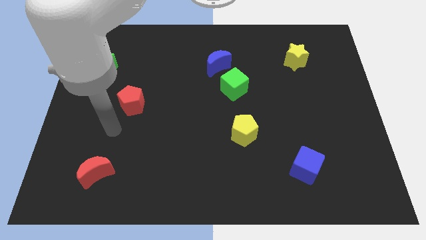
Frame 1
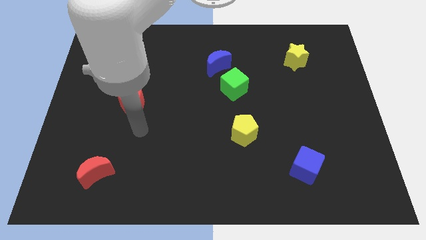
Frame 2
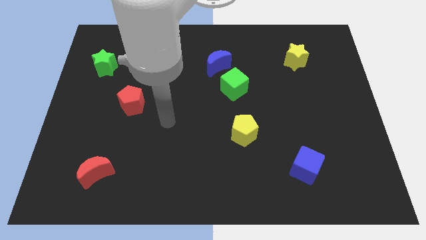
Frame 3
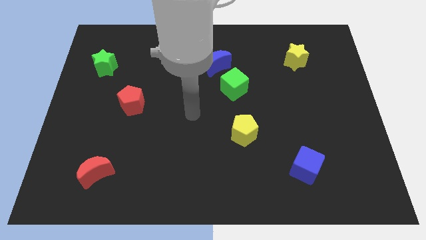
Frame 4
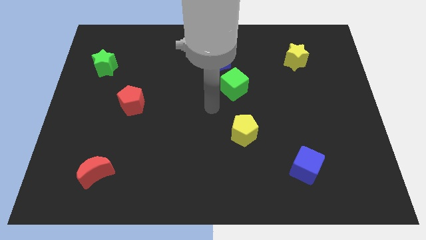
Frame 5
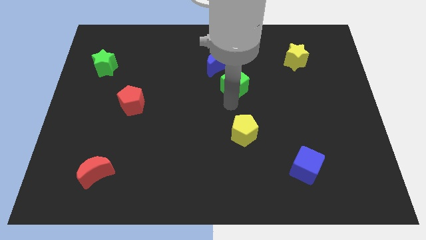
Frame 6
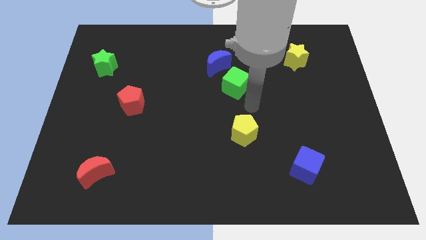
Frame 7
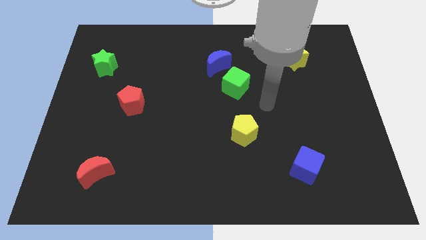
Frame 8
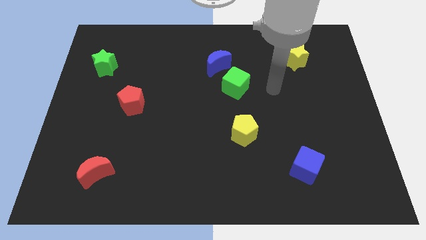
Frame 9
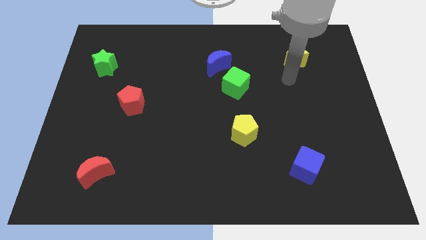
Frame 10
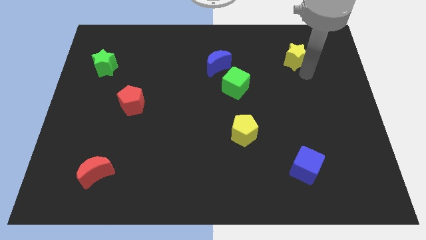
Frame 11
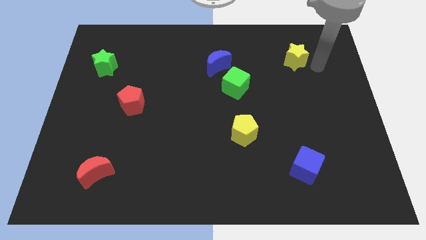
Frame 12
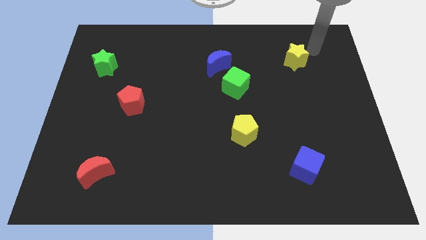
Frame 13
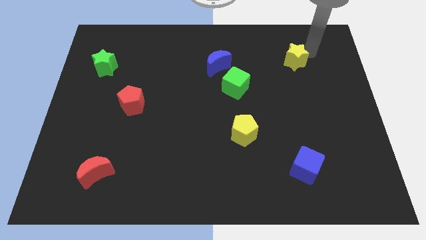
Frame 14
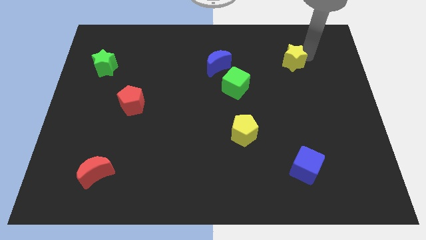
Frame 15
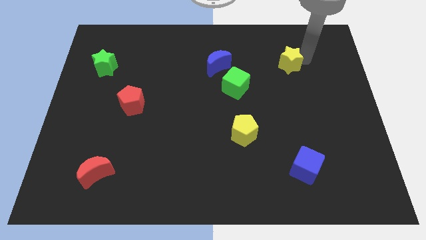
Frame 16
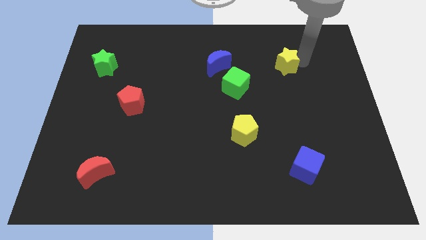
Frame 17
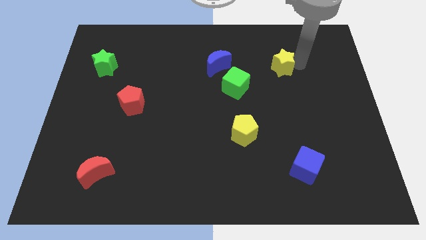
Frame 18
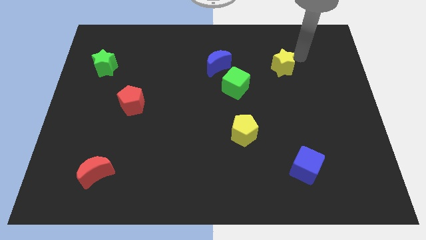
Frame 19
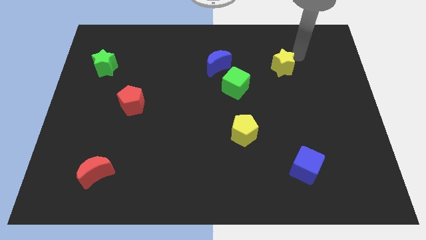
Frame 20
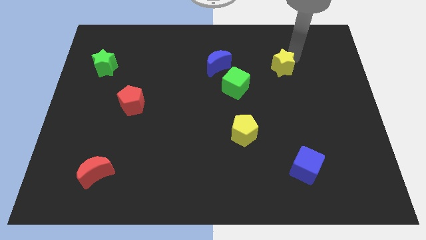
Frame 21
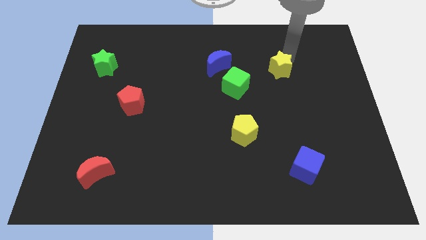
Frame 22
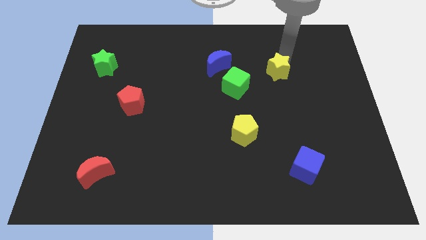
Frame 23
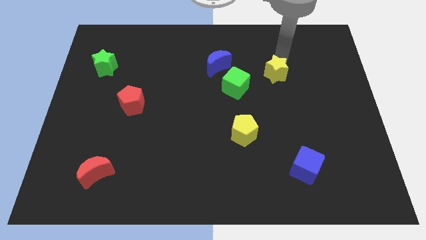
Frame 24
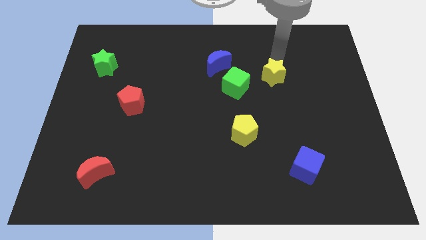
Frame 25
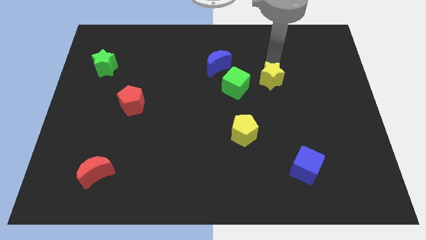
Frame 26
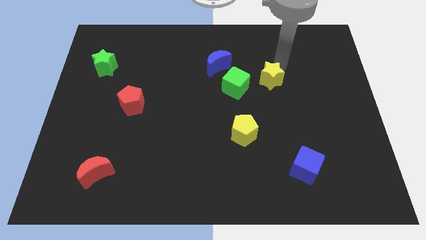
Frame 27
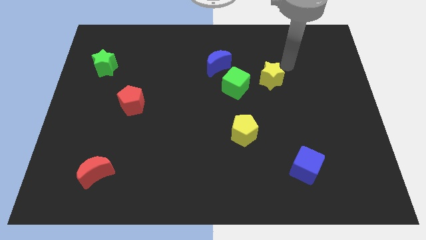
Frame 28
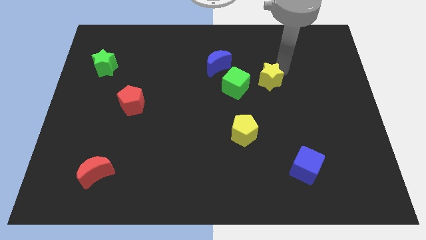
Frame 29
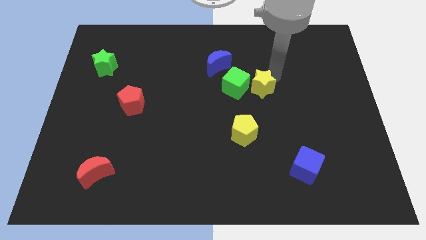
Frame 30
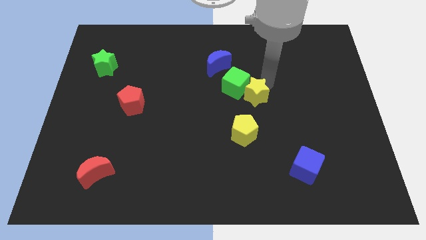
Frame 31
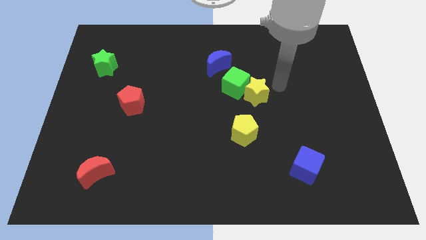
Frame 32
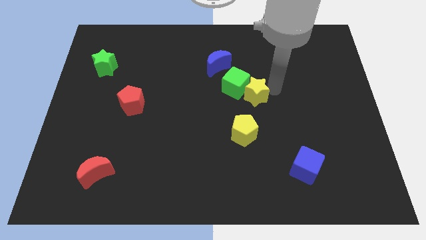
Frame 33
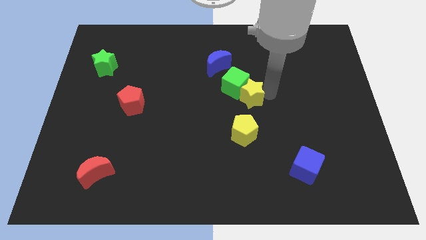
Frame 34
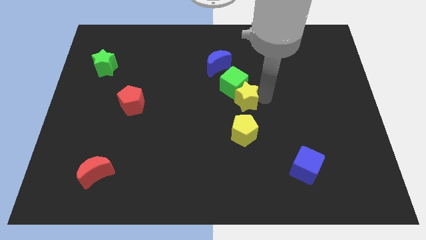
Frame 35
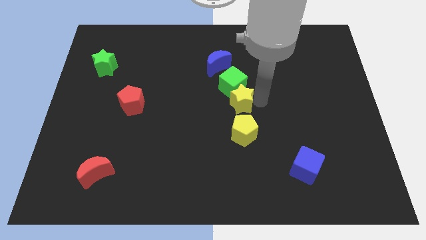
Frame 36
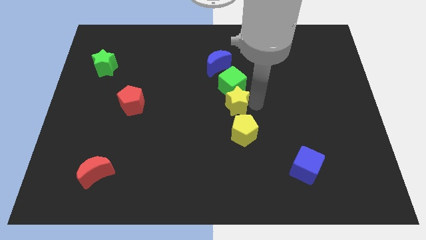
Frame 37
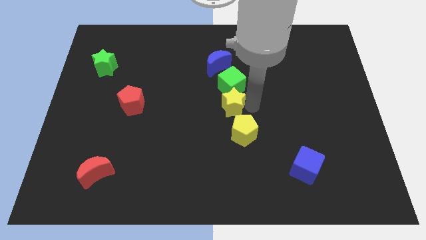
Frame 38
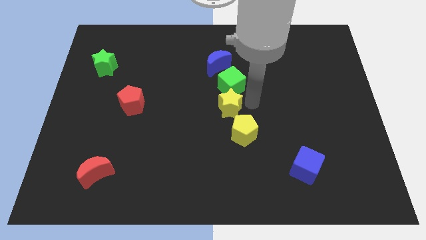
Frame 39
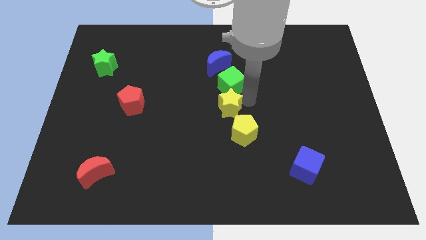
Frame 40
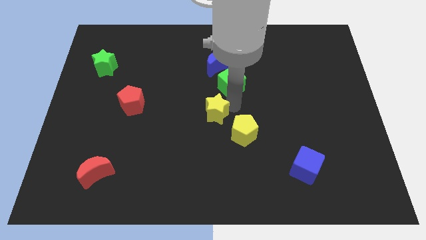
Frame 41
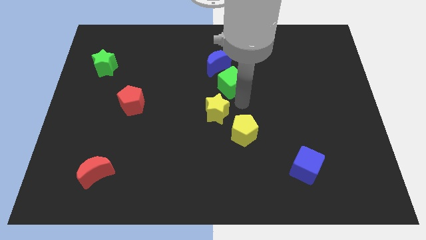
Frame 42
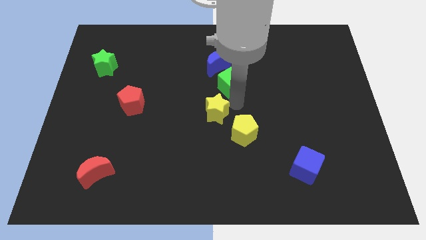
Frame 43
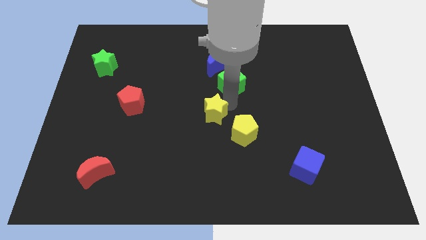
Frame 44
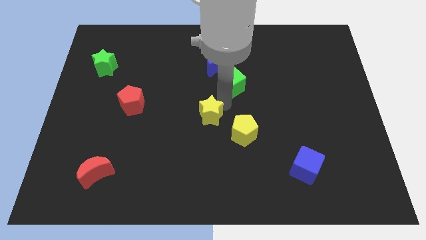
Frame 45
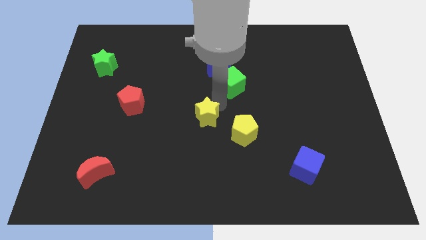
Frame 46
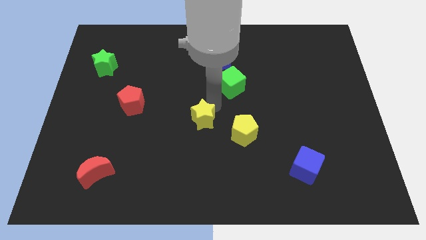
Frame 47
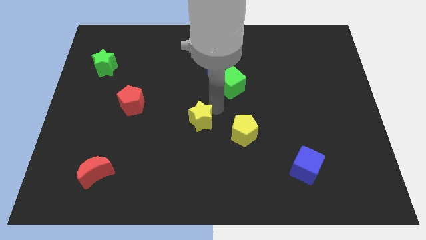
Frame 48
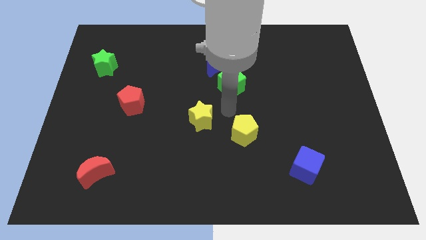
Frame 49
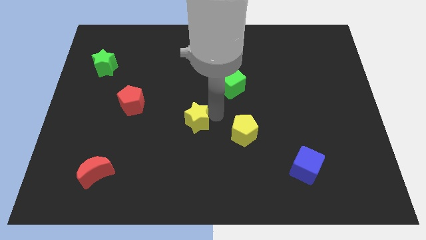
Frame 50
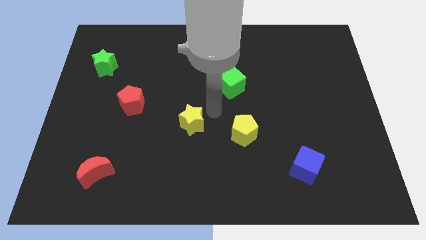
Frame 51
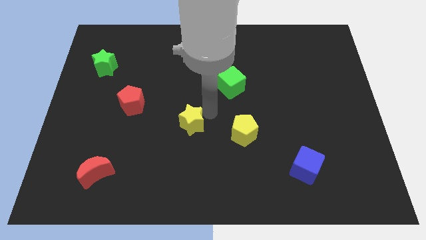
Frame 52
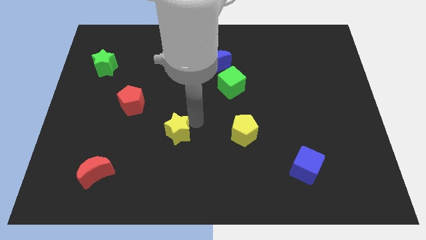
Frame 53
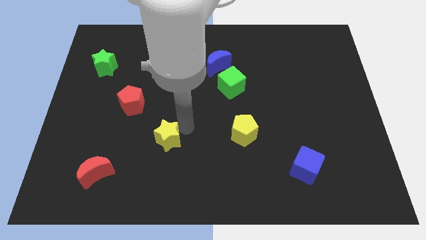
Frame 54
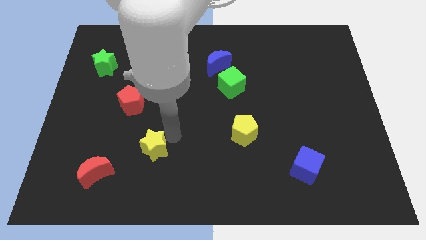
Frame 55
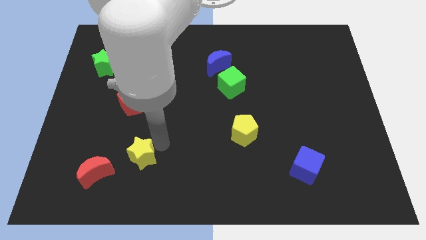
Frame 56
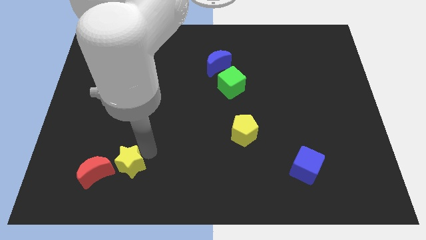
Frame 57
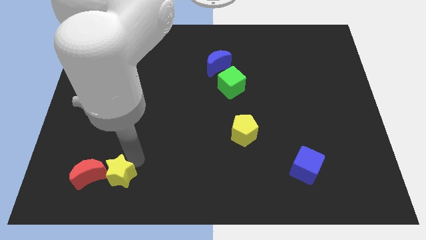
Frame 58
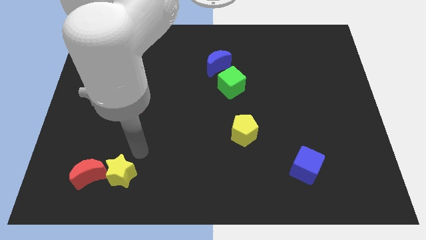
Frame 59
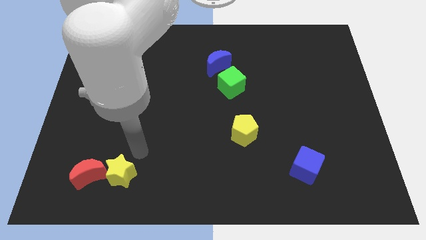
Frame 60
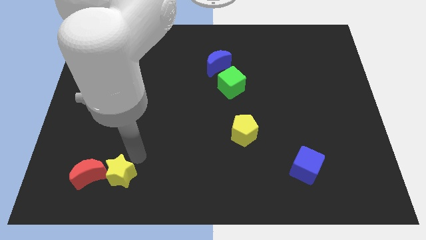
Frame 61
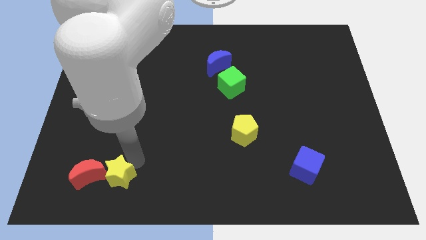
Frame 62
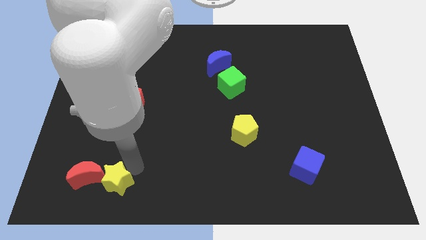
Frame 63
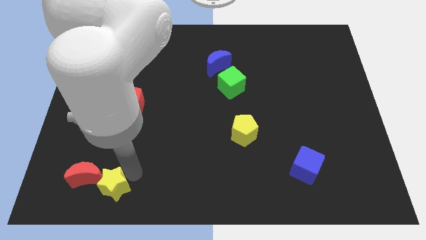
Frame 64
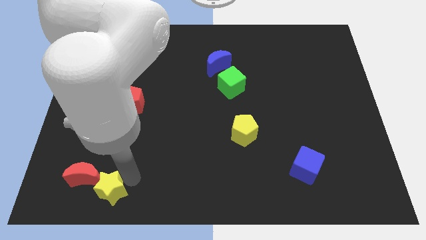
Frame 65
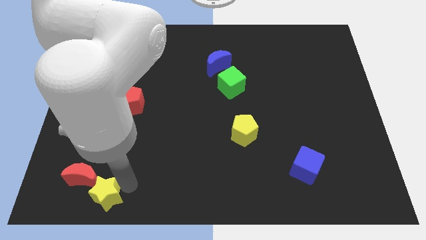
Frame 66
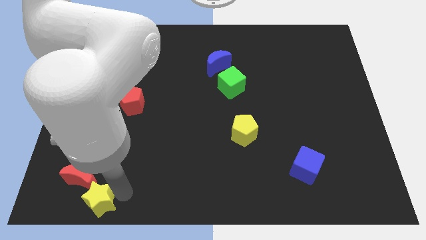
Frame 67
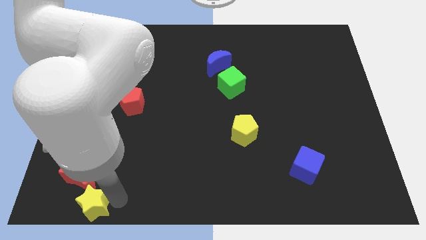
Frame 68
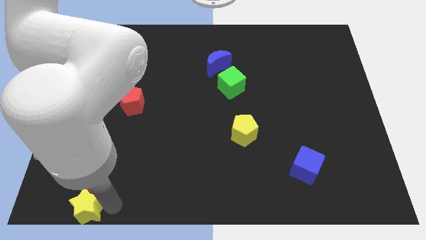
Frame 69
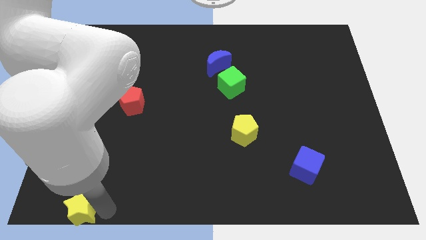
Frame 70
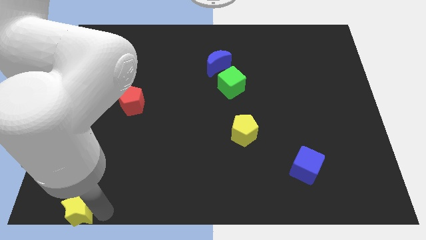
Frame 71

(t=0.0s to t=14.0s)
move the yellow star to the bottom left
